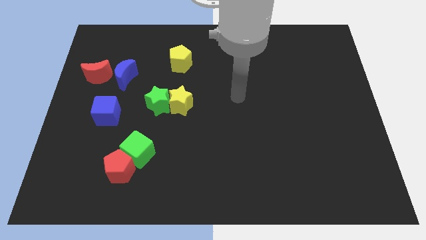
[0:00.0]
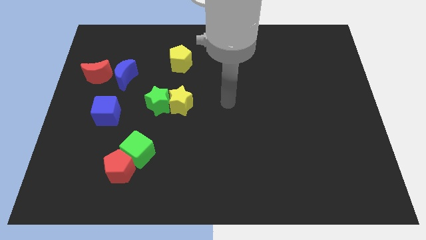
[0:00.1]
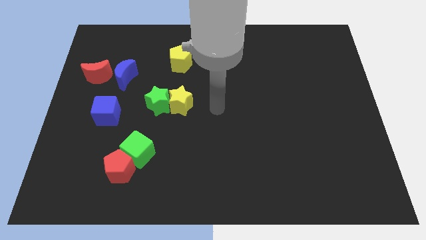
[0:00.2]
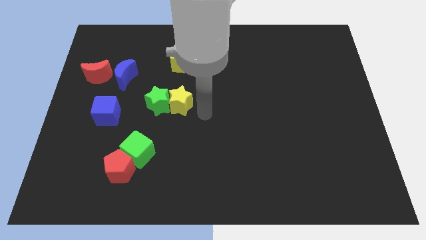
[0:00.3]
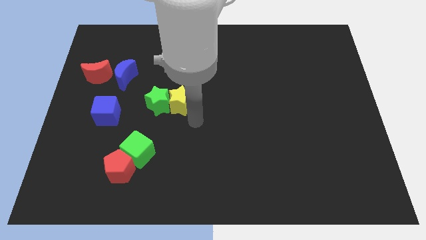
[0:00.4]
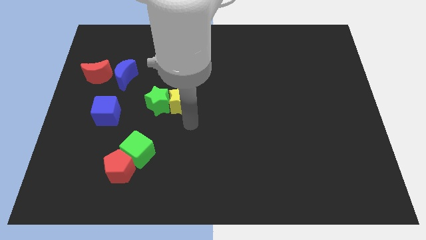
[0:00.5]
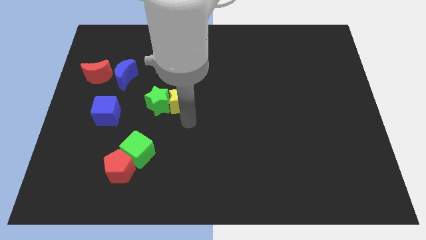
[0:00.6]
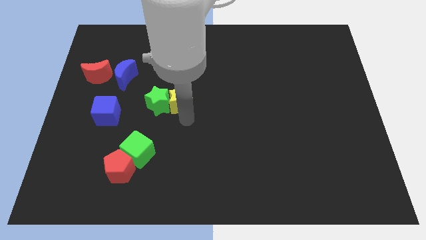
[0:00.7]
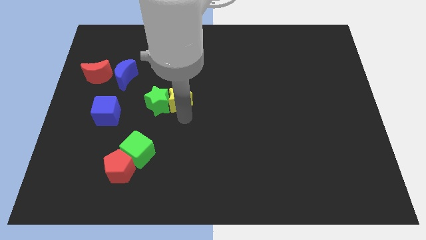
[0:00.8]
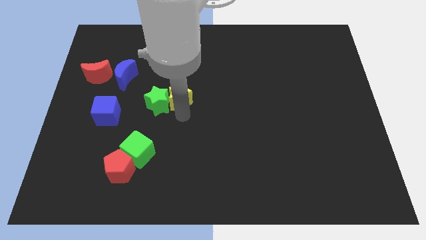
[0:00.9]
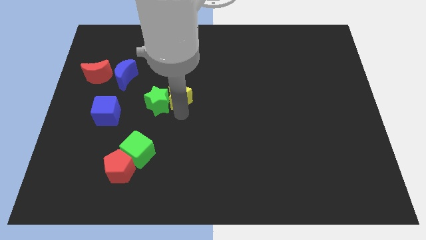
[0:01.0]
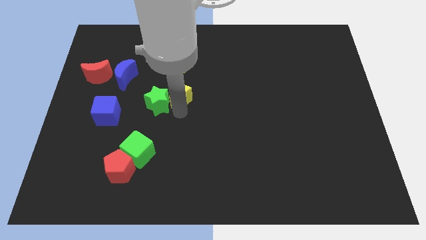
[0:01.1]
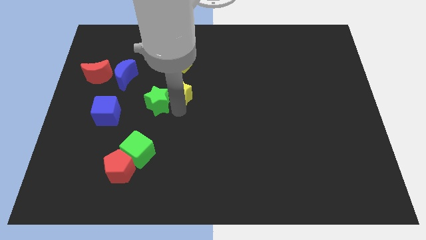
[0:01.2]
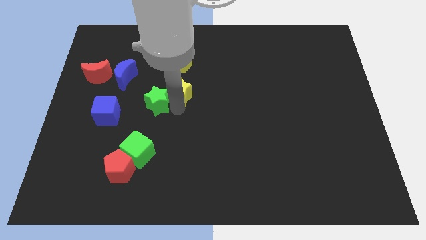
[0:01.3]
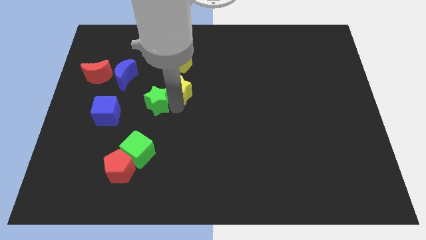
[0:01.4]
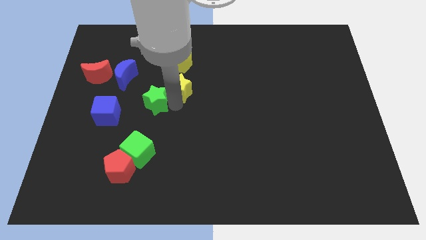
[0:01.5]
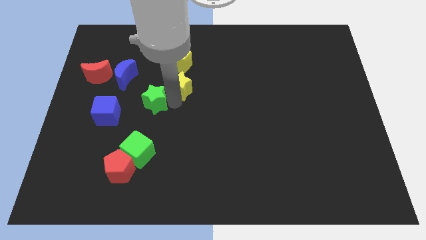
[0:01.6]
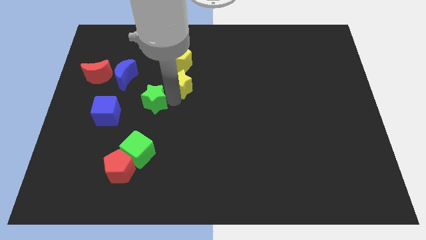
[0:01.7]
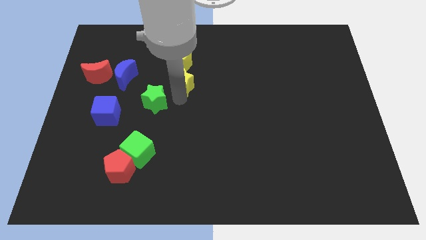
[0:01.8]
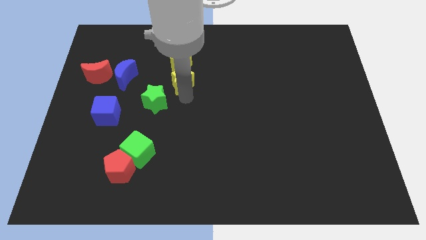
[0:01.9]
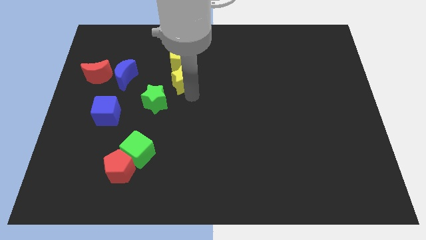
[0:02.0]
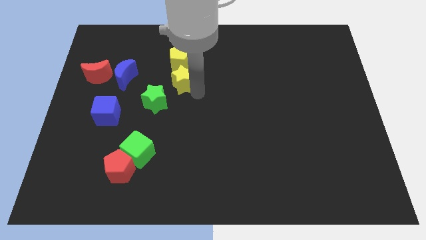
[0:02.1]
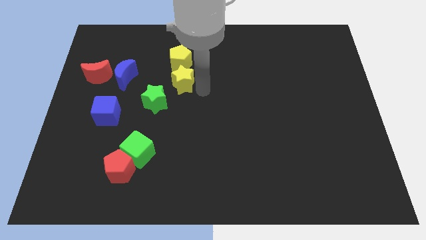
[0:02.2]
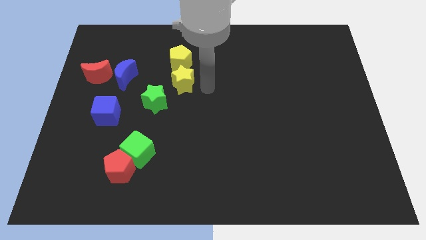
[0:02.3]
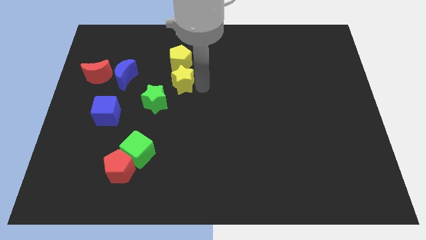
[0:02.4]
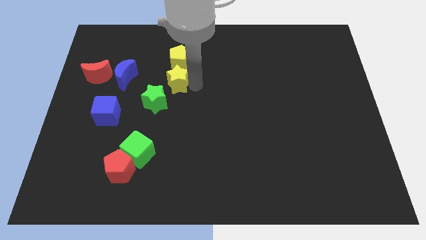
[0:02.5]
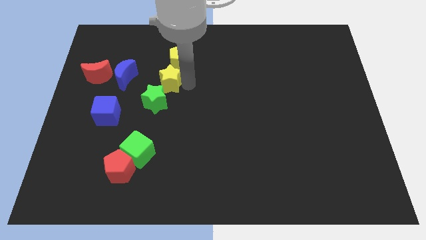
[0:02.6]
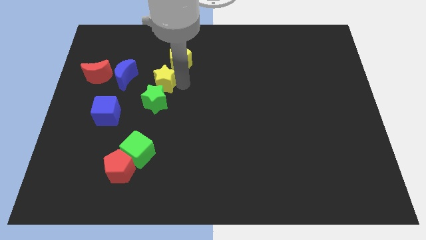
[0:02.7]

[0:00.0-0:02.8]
slide the yellow star slightly up and to the left diagonally

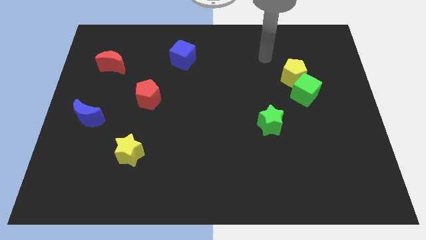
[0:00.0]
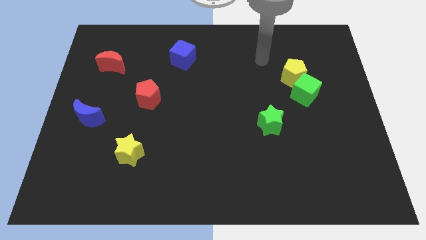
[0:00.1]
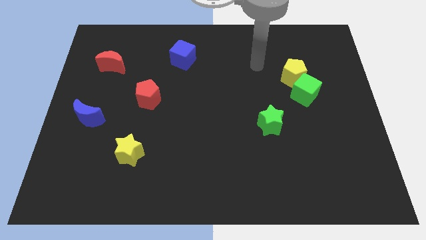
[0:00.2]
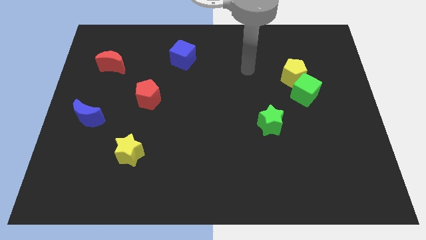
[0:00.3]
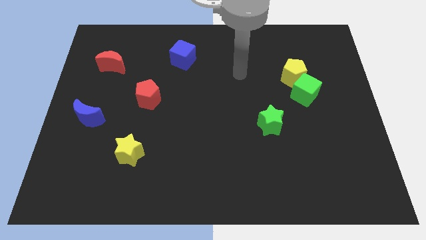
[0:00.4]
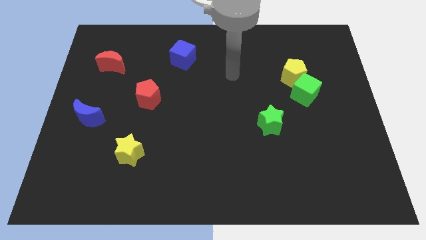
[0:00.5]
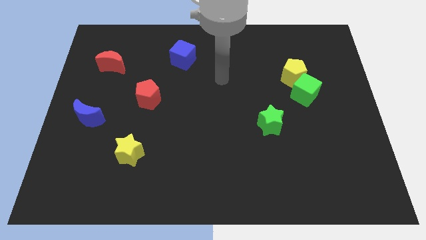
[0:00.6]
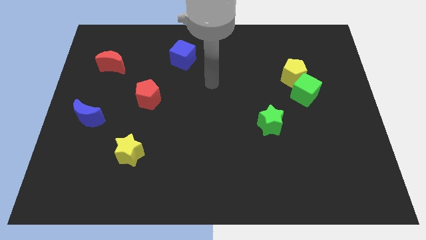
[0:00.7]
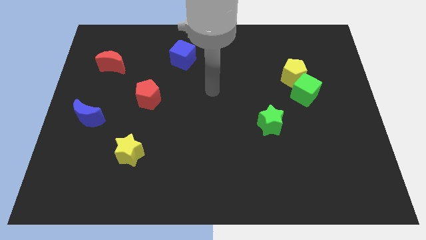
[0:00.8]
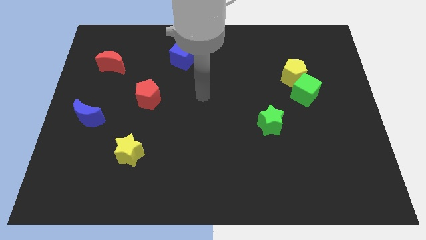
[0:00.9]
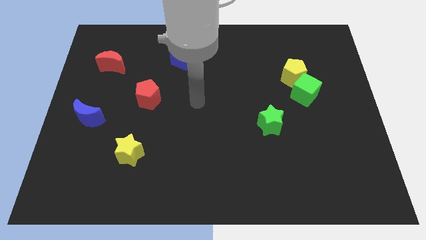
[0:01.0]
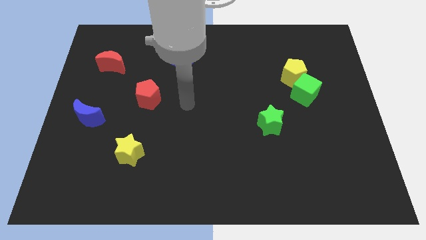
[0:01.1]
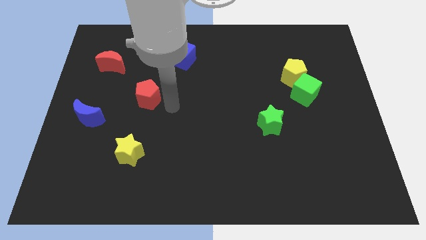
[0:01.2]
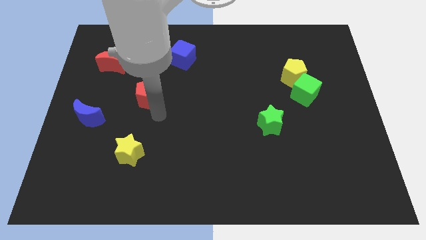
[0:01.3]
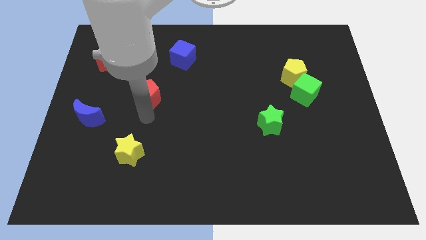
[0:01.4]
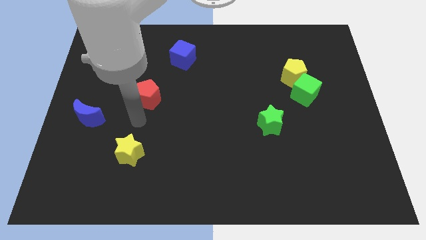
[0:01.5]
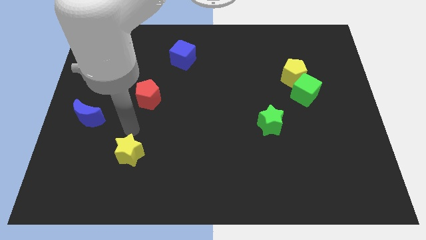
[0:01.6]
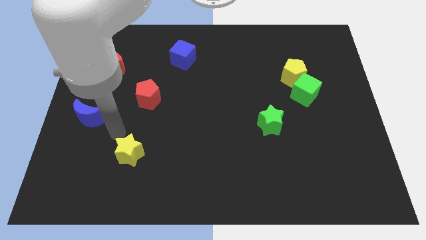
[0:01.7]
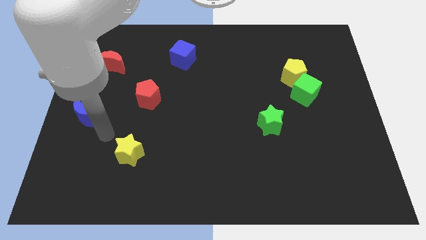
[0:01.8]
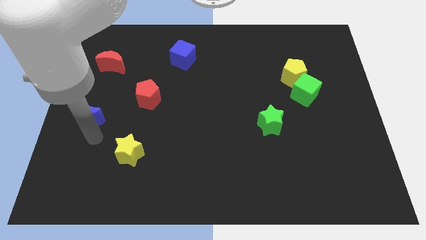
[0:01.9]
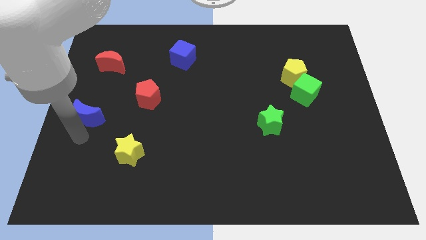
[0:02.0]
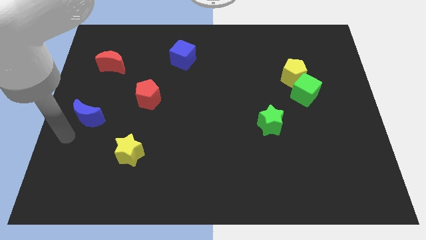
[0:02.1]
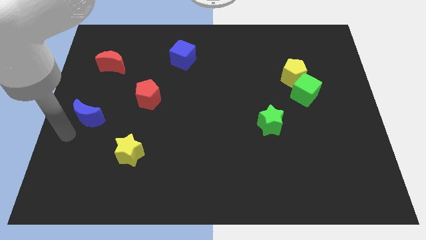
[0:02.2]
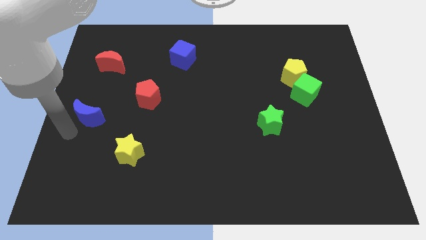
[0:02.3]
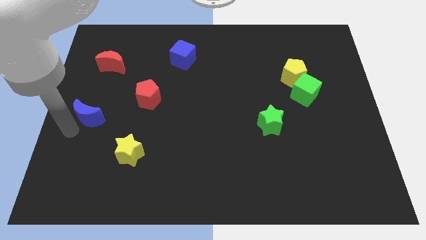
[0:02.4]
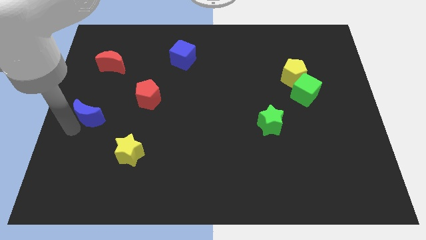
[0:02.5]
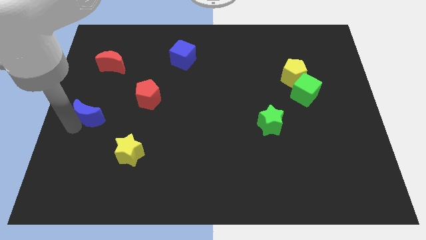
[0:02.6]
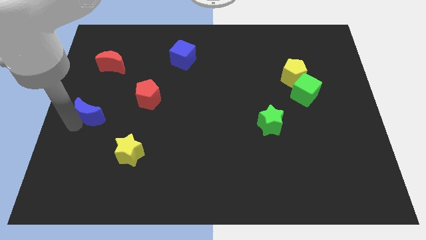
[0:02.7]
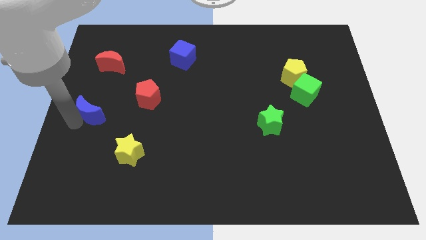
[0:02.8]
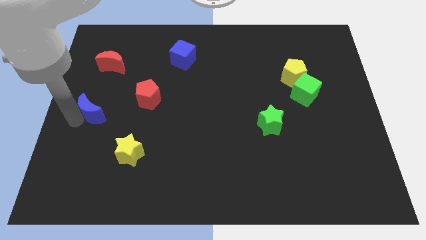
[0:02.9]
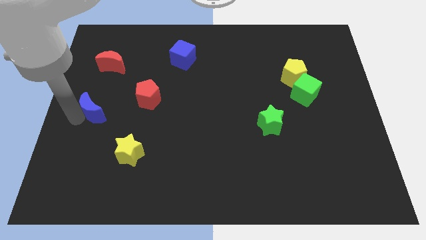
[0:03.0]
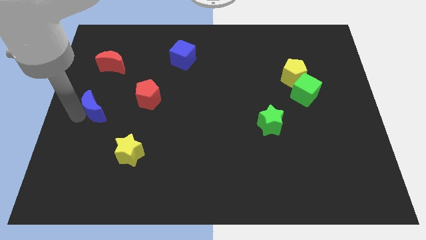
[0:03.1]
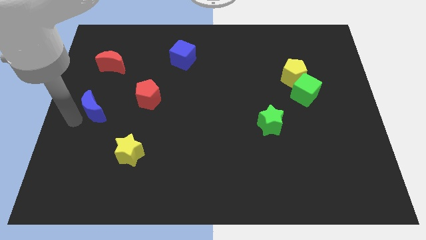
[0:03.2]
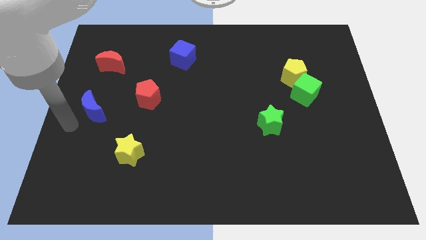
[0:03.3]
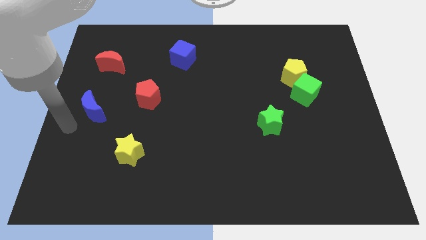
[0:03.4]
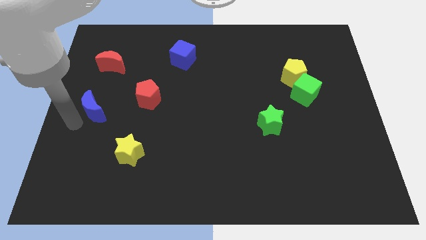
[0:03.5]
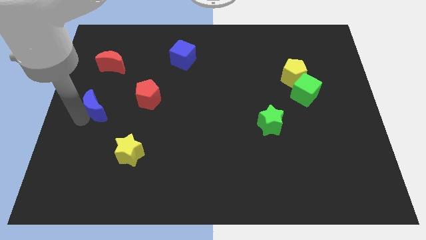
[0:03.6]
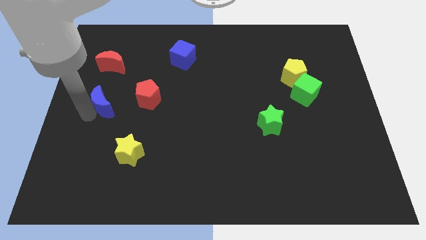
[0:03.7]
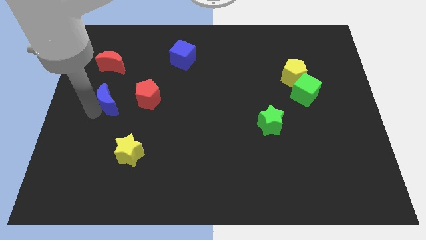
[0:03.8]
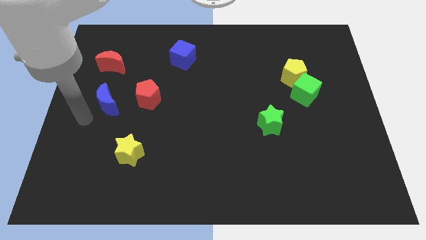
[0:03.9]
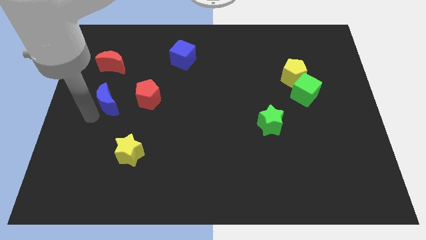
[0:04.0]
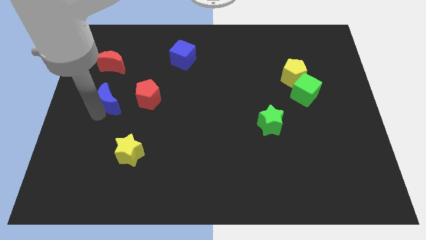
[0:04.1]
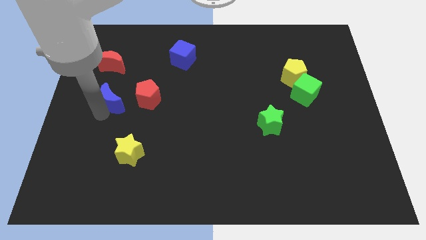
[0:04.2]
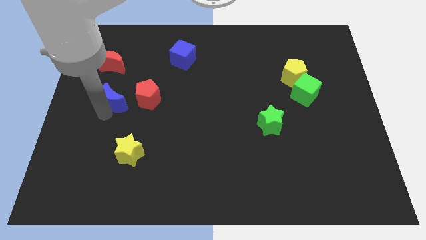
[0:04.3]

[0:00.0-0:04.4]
move the blue moon a little diagonally up and to the right

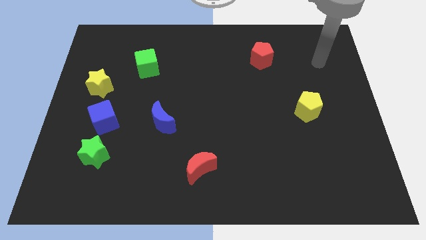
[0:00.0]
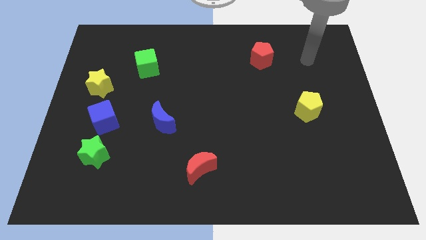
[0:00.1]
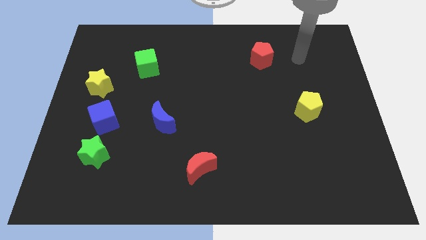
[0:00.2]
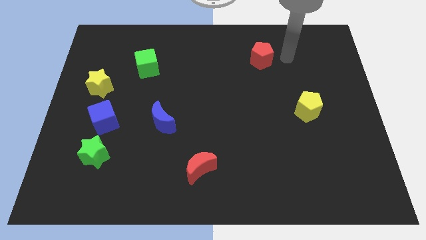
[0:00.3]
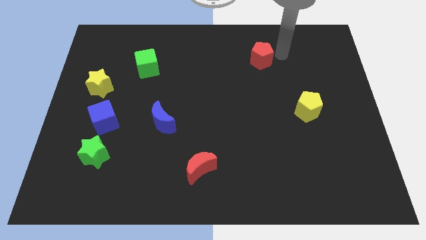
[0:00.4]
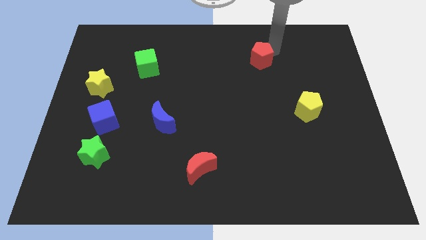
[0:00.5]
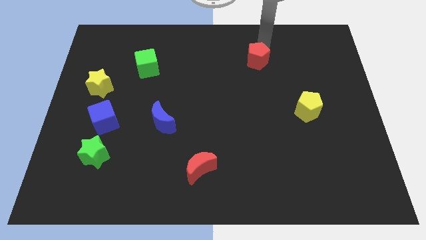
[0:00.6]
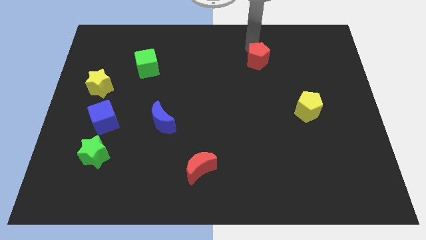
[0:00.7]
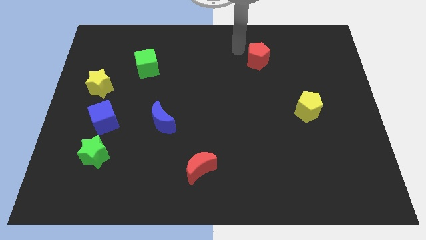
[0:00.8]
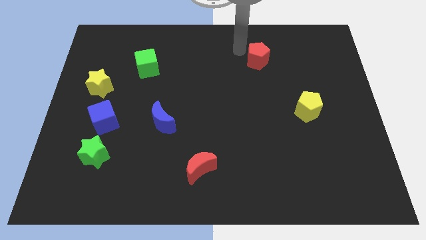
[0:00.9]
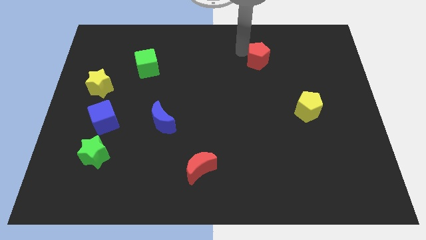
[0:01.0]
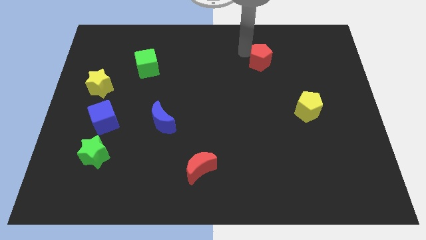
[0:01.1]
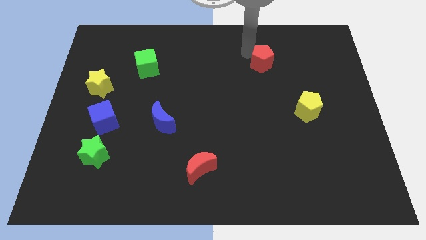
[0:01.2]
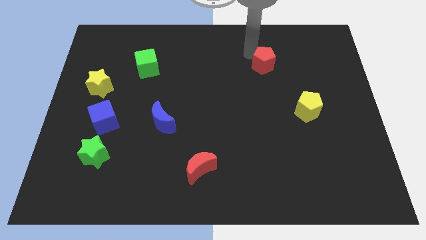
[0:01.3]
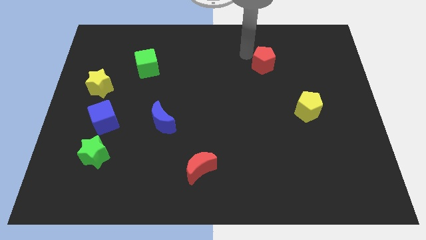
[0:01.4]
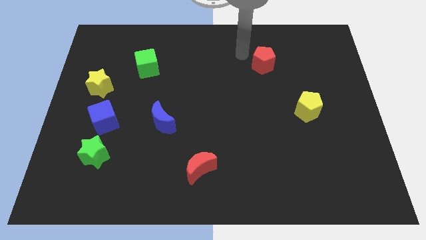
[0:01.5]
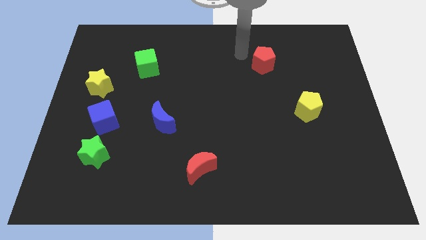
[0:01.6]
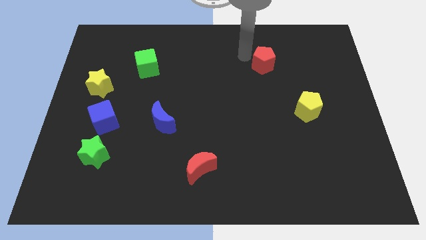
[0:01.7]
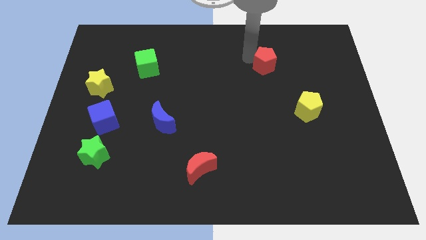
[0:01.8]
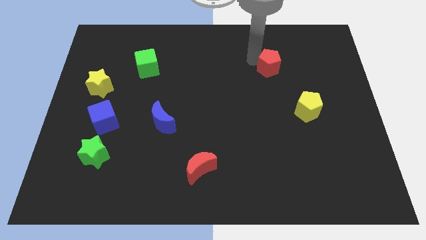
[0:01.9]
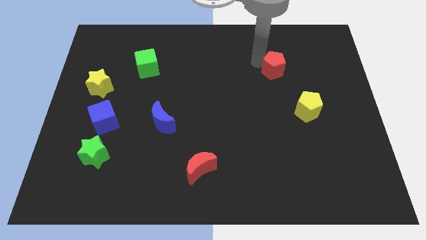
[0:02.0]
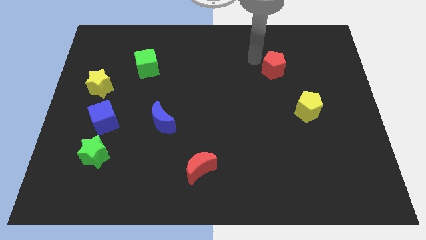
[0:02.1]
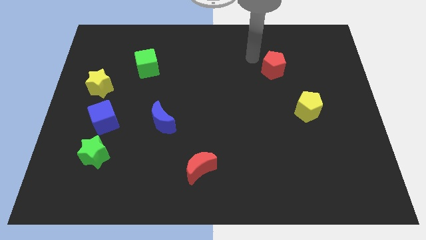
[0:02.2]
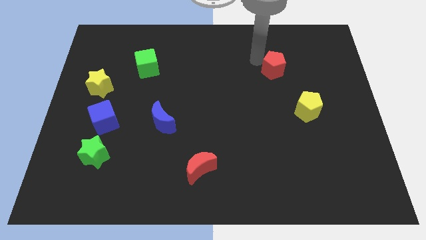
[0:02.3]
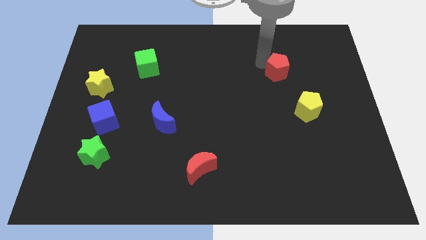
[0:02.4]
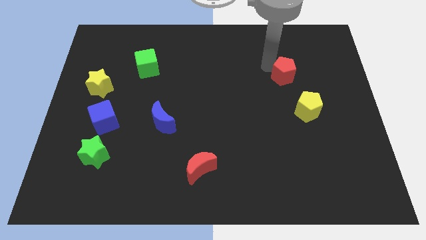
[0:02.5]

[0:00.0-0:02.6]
slightly move the red pentagon diagonally downwards and right
